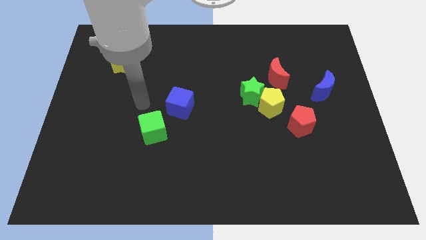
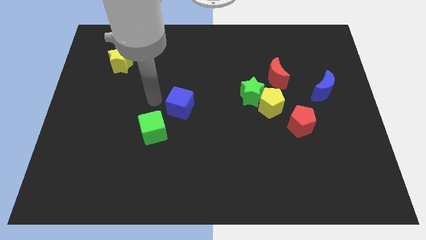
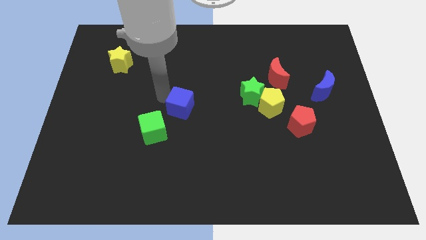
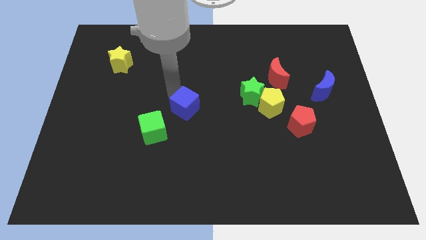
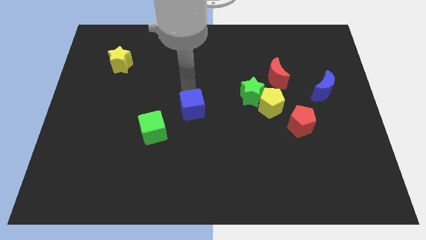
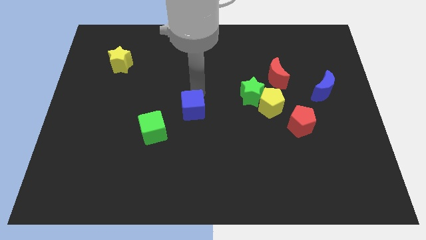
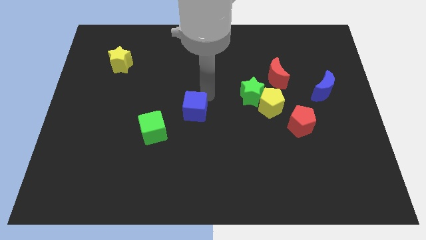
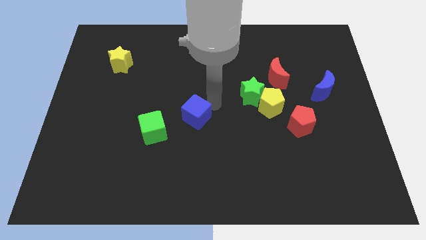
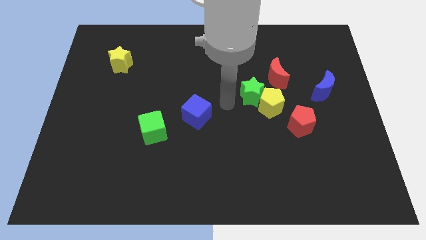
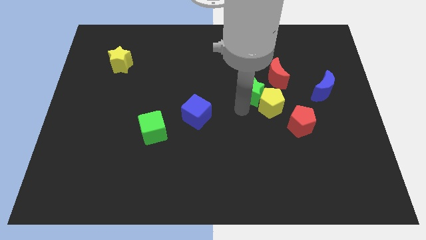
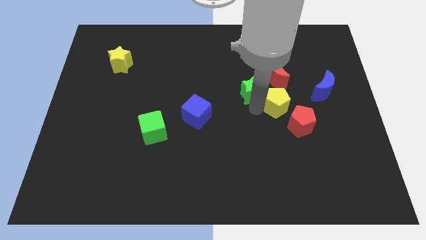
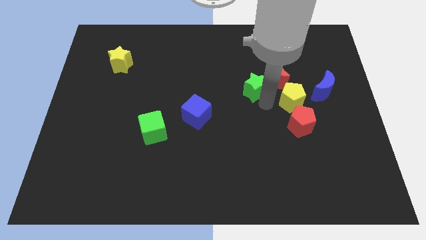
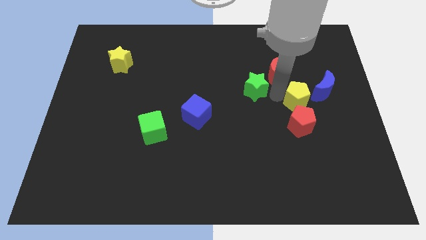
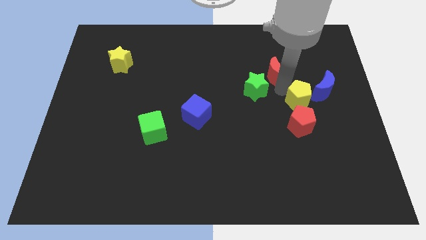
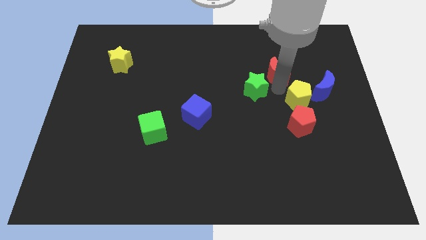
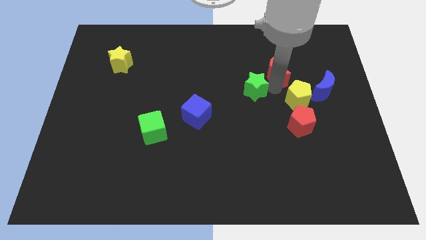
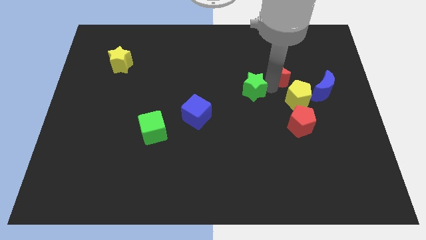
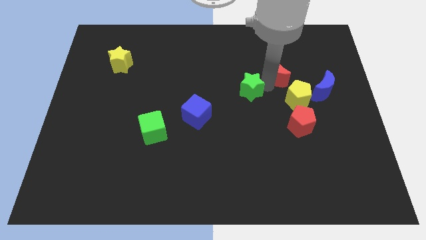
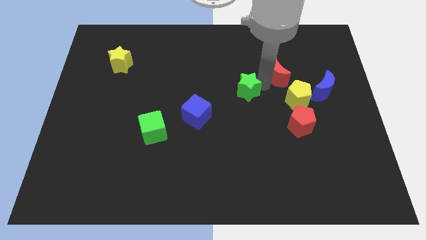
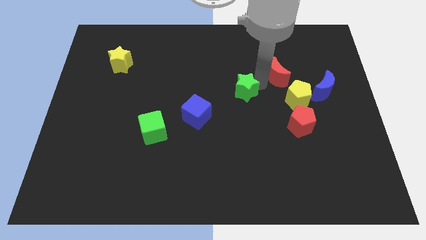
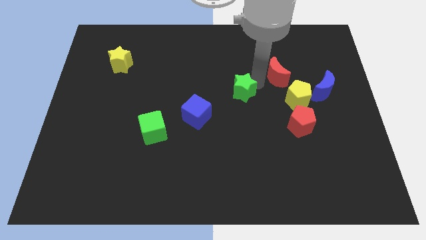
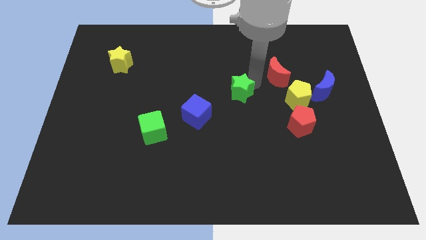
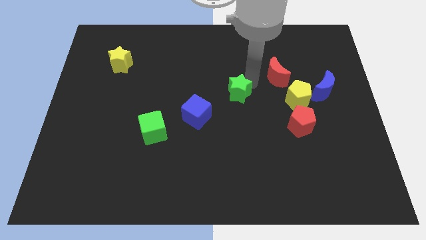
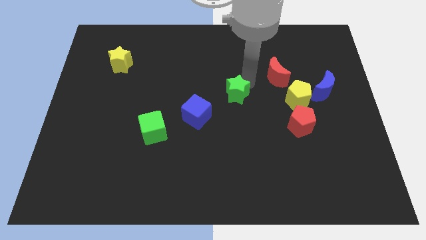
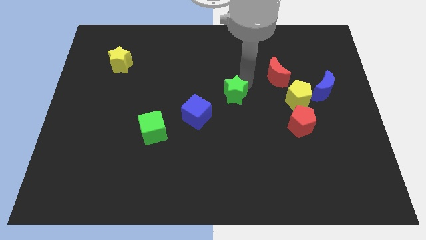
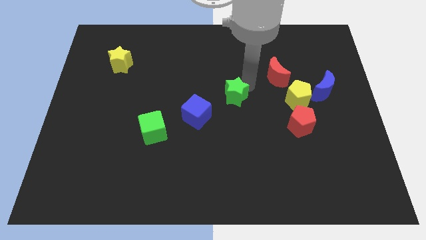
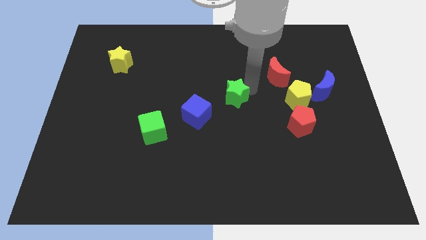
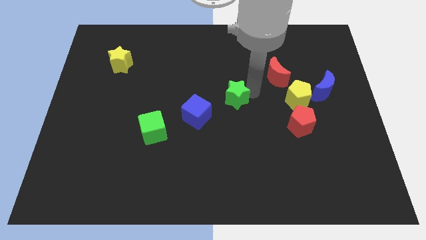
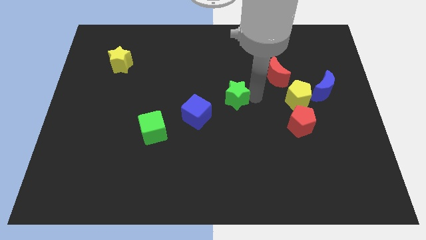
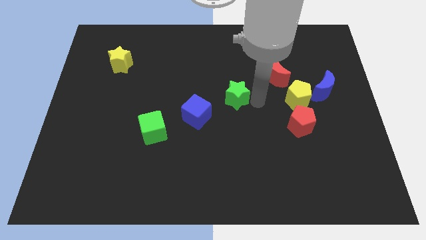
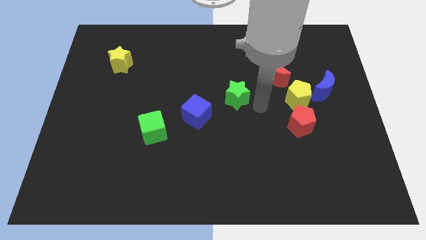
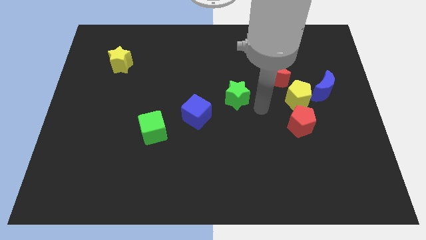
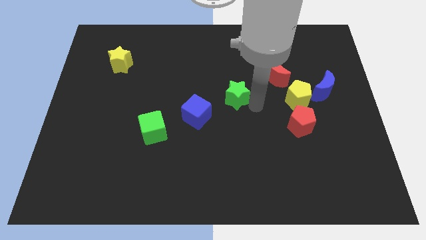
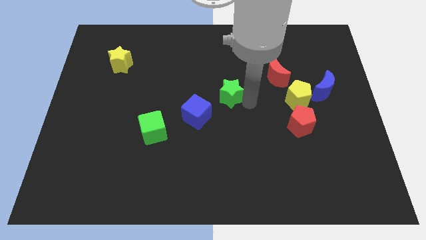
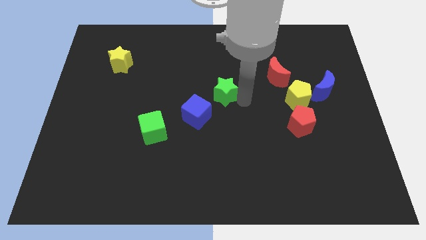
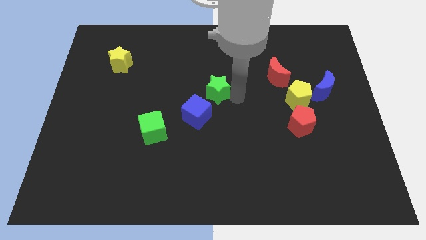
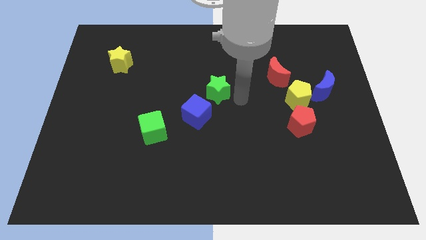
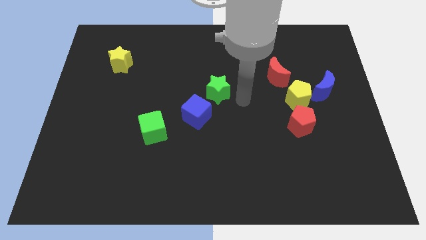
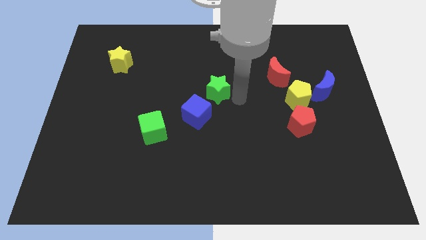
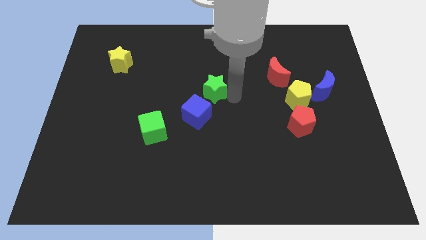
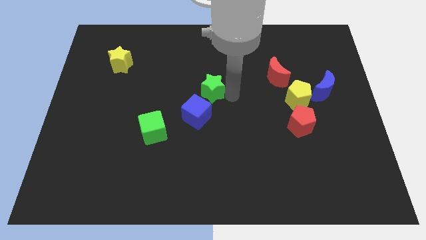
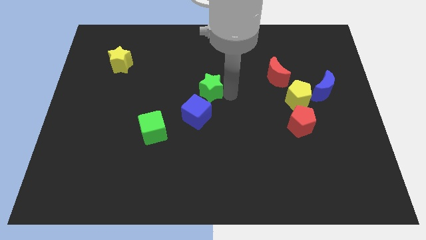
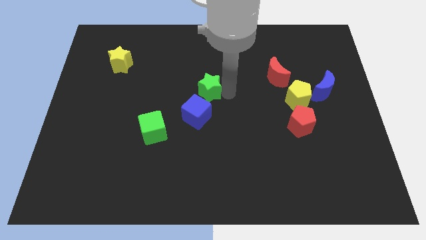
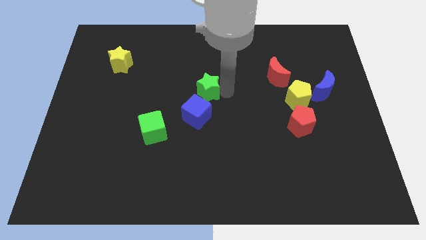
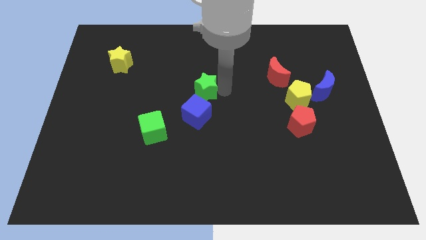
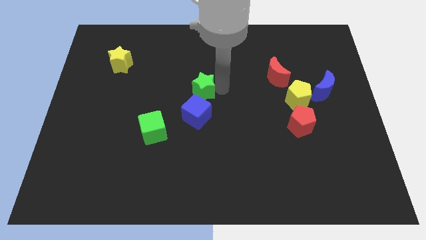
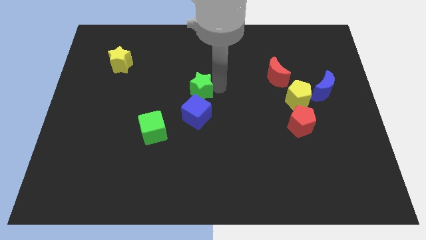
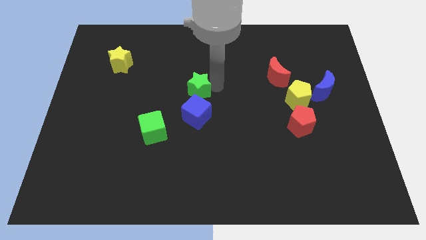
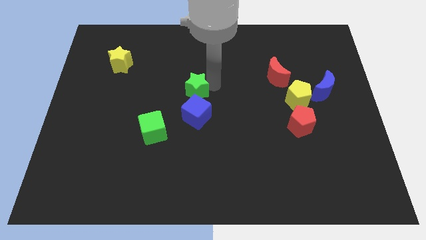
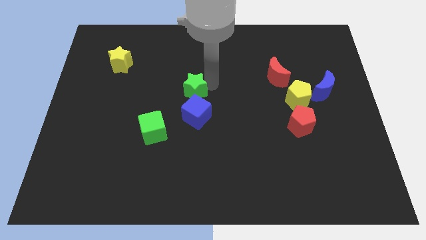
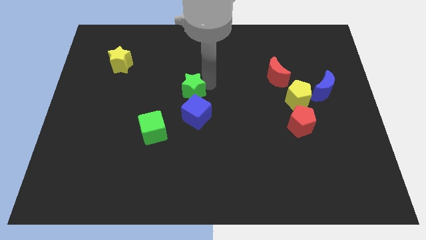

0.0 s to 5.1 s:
slide the green star to the top left of the blue cube

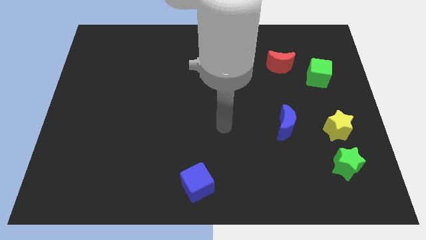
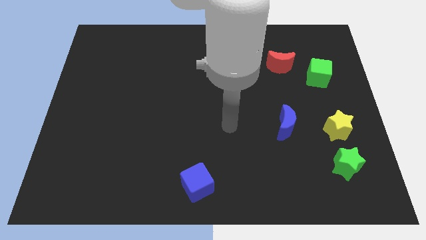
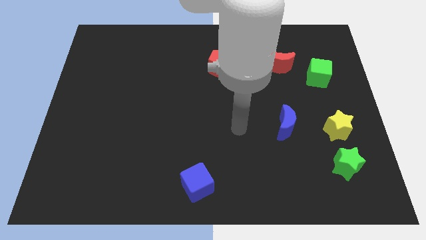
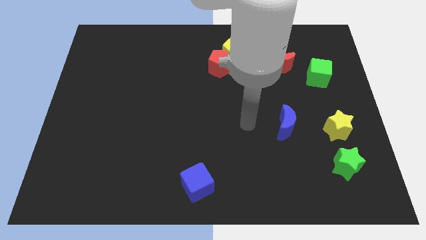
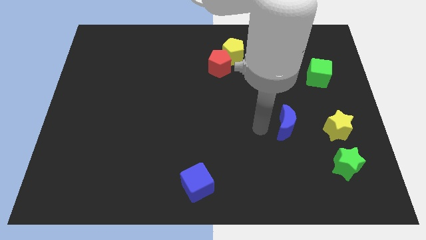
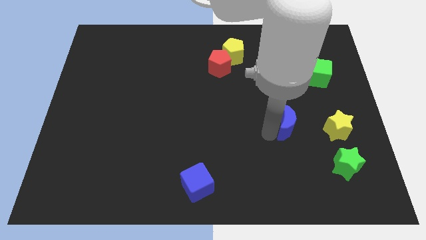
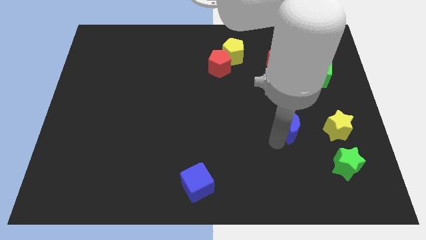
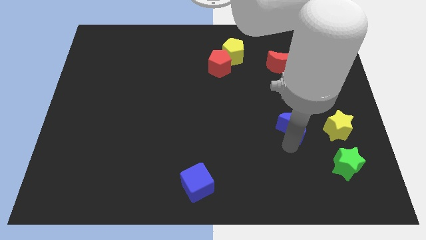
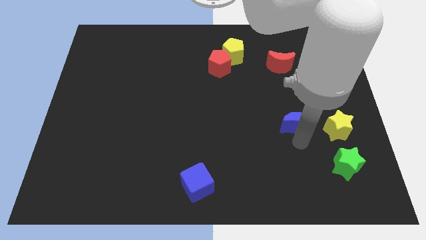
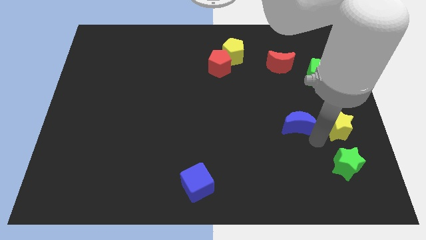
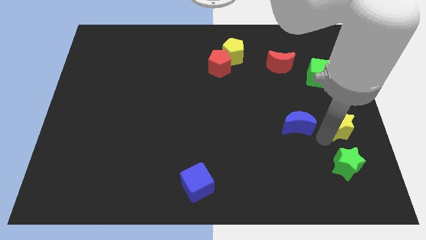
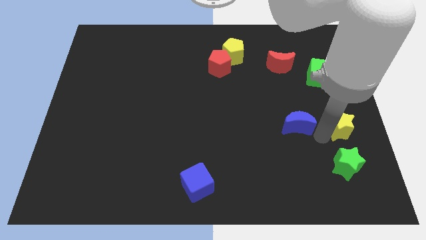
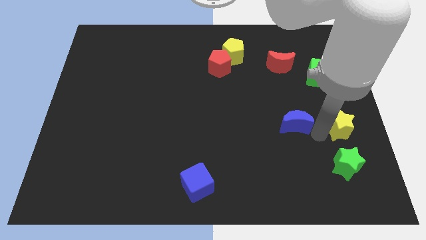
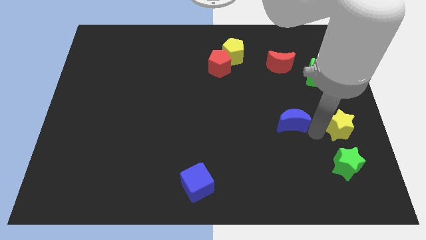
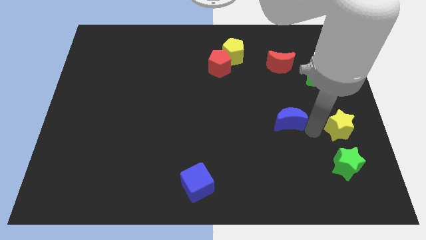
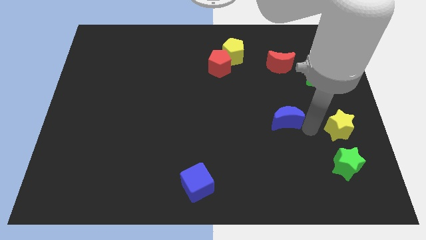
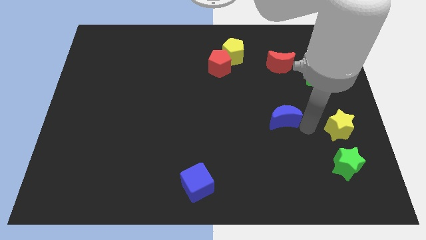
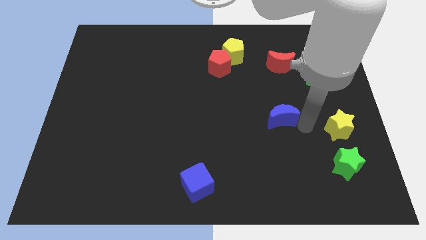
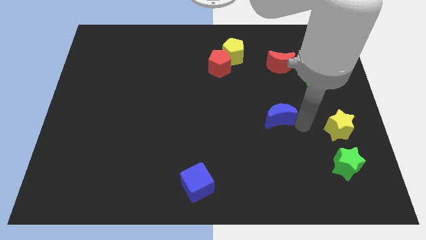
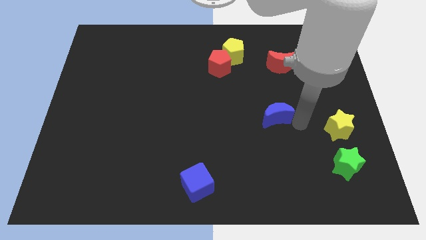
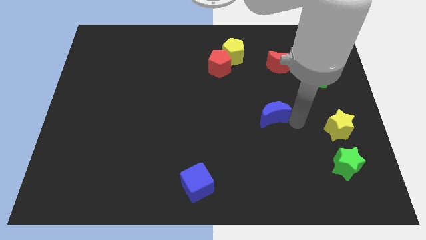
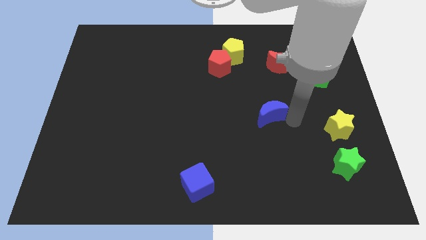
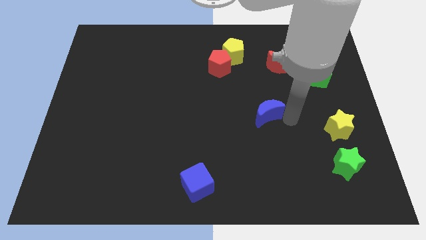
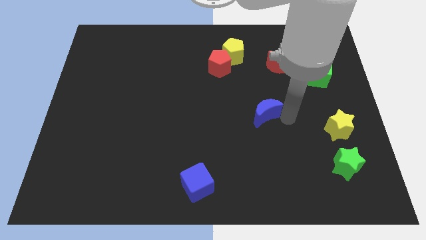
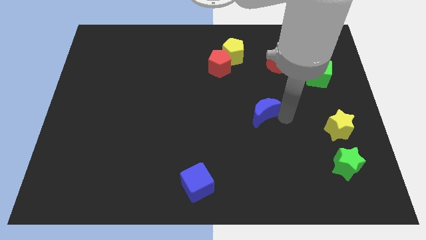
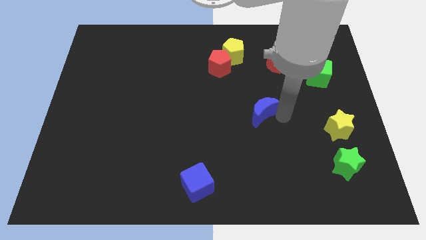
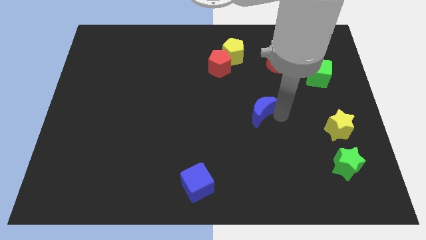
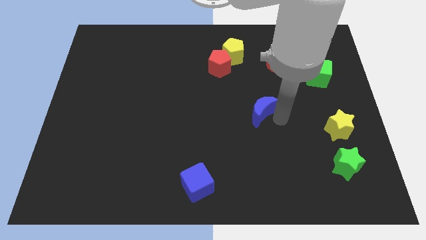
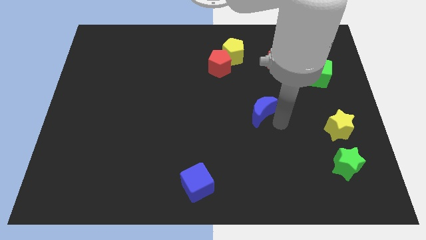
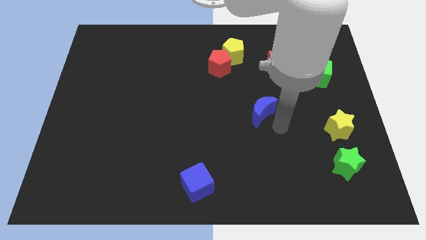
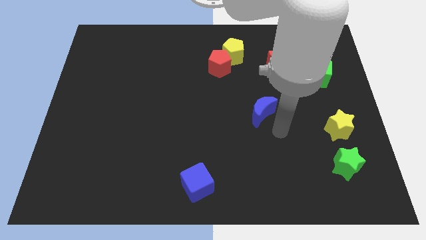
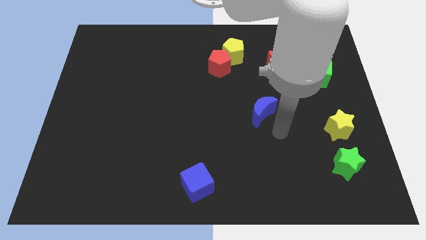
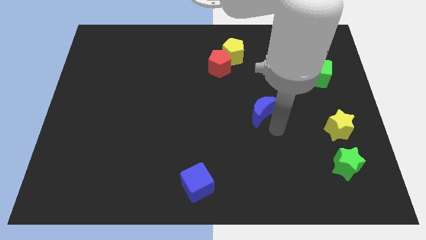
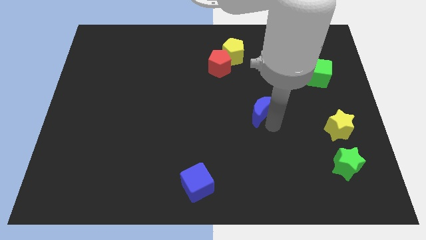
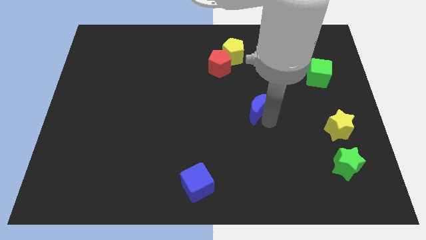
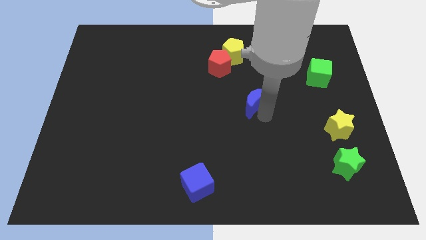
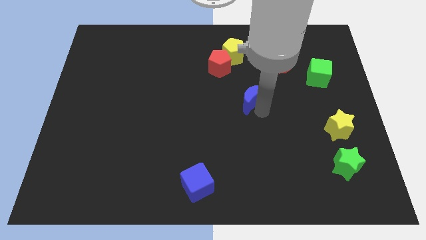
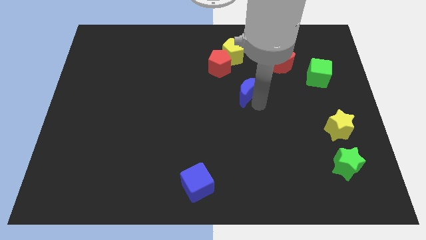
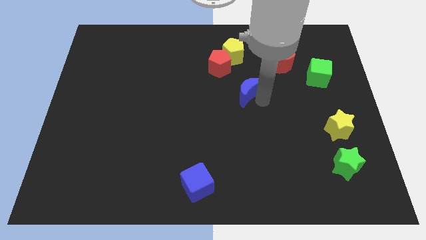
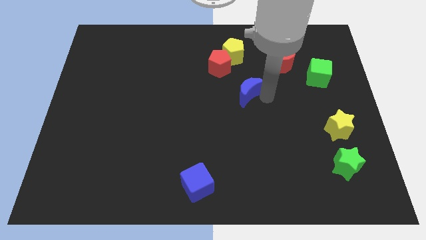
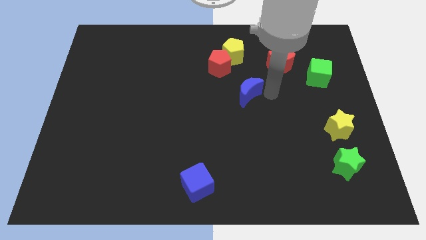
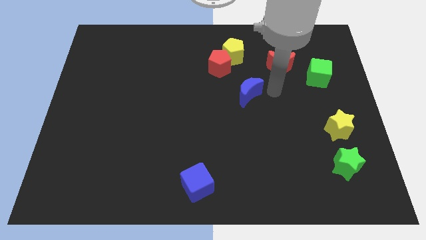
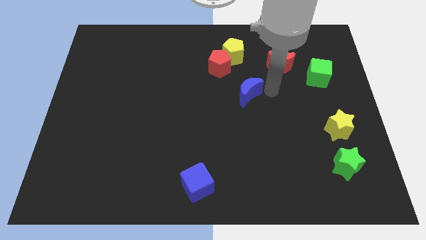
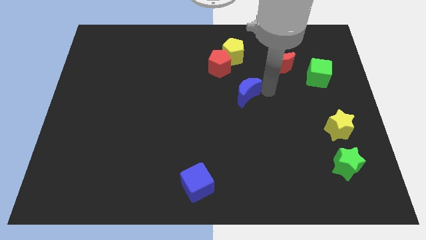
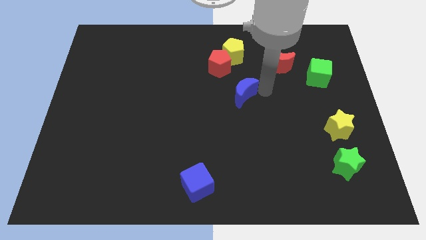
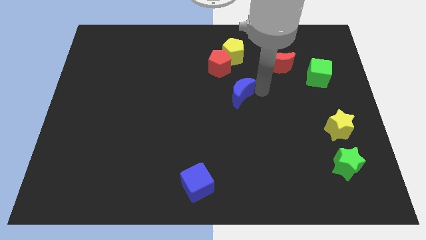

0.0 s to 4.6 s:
push the blue moon to the bottom of the red pentagon
